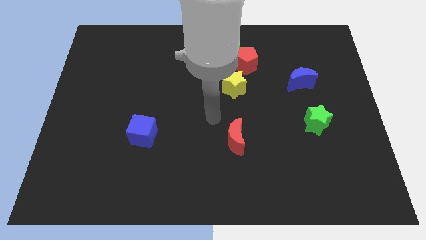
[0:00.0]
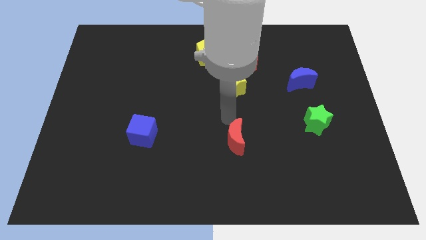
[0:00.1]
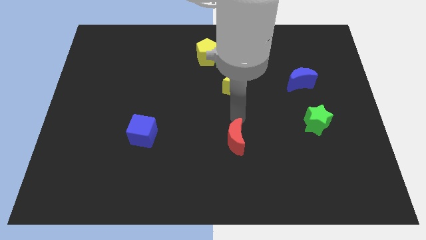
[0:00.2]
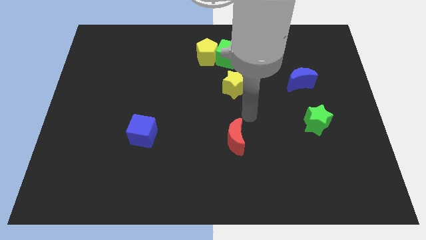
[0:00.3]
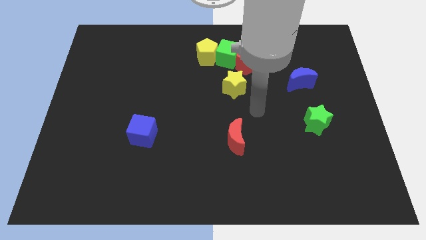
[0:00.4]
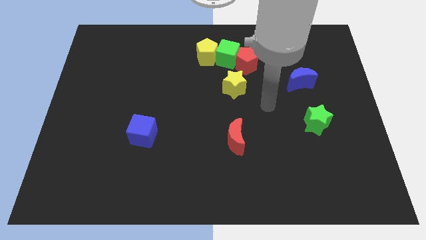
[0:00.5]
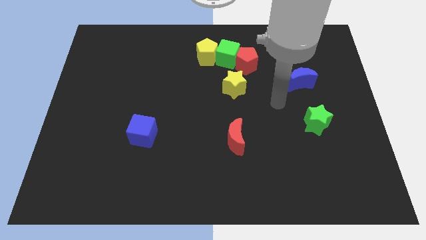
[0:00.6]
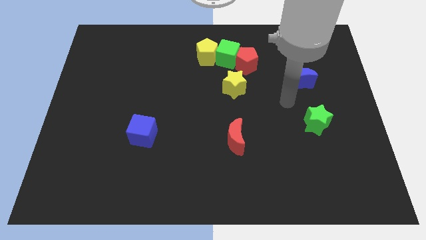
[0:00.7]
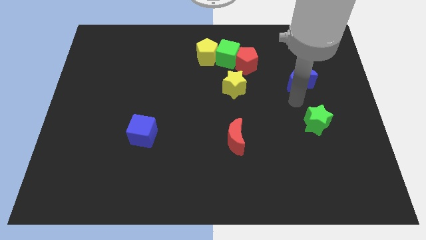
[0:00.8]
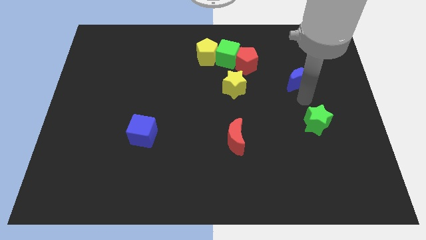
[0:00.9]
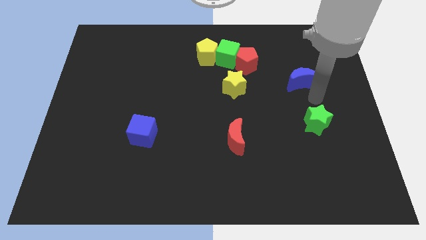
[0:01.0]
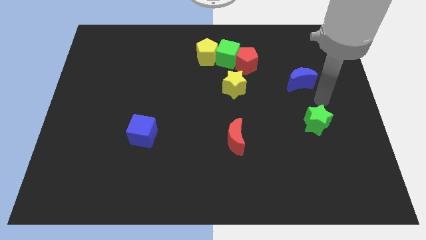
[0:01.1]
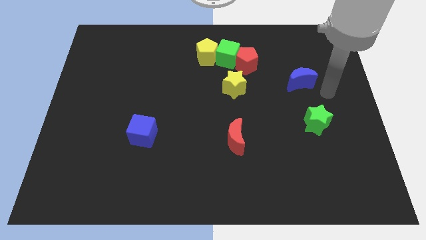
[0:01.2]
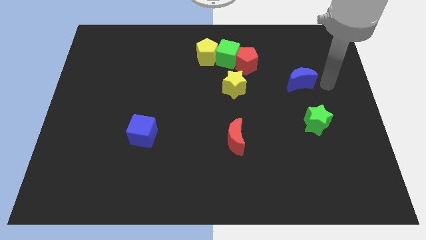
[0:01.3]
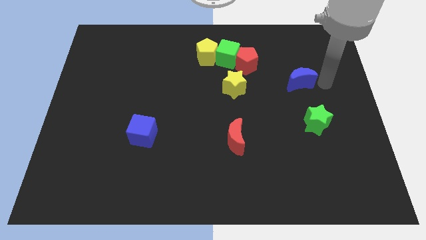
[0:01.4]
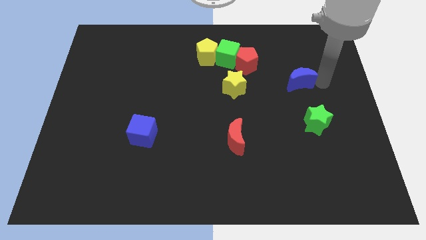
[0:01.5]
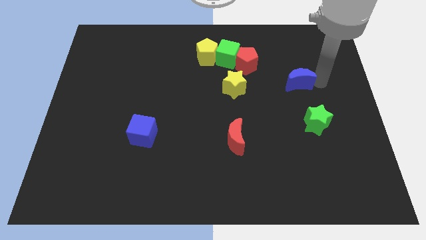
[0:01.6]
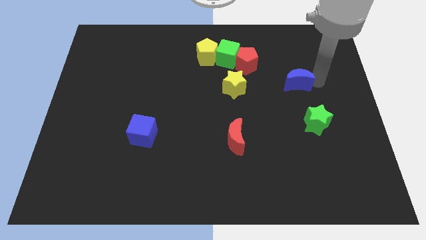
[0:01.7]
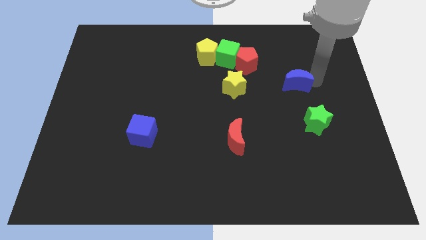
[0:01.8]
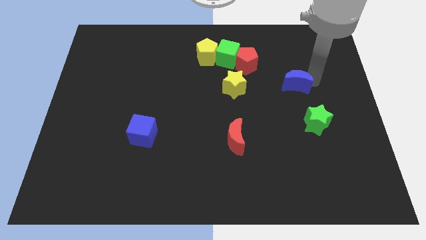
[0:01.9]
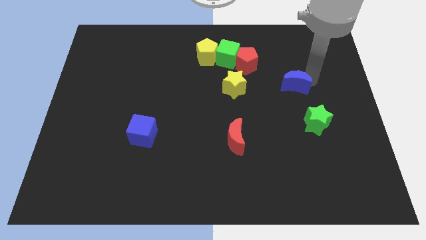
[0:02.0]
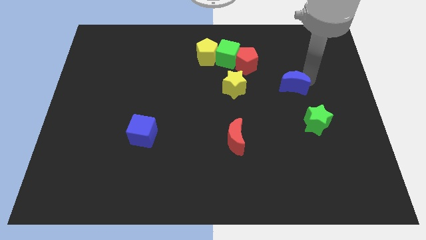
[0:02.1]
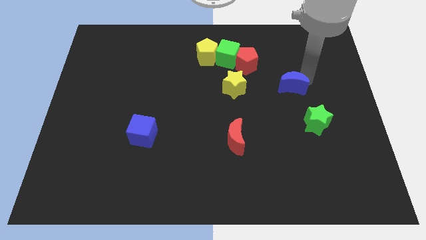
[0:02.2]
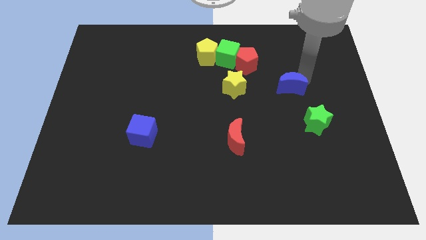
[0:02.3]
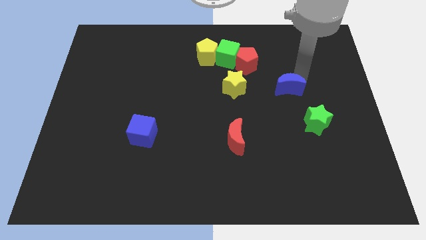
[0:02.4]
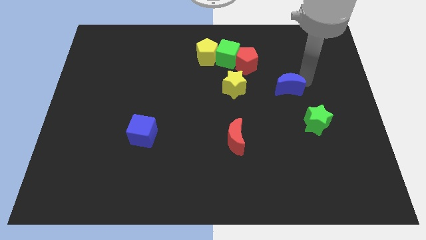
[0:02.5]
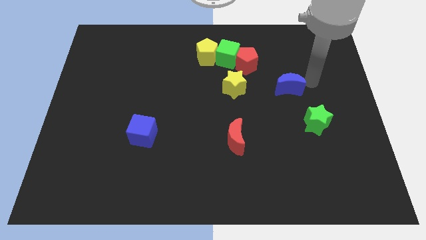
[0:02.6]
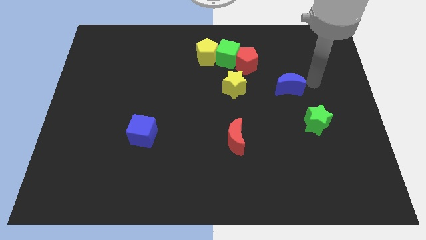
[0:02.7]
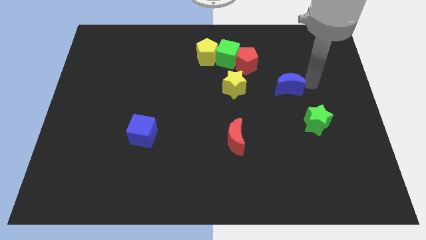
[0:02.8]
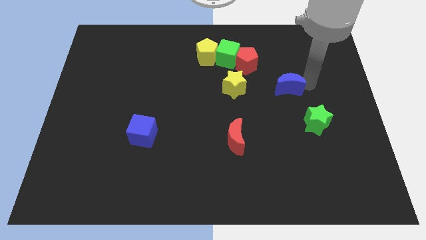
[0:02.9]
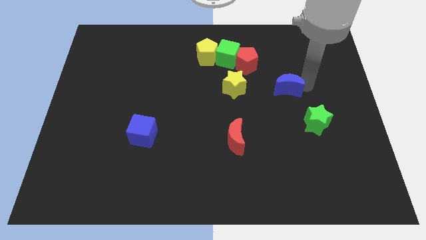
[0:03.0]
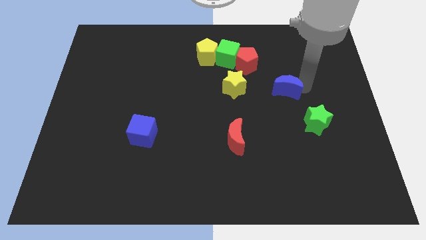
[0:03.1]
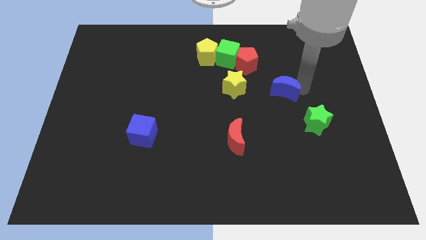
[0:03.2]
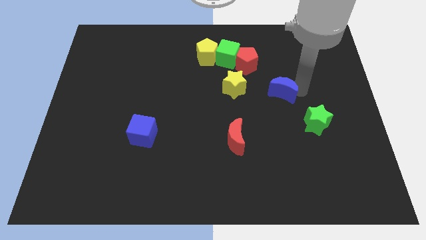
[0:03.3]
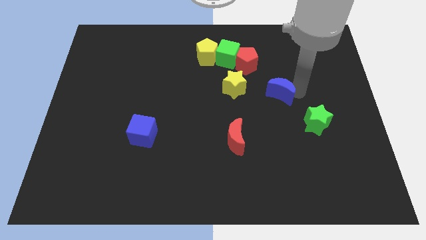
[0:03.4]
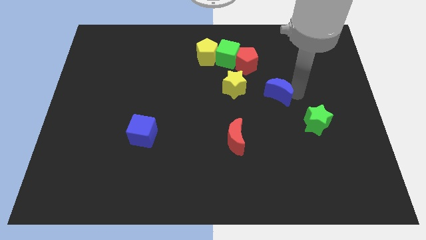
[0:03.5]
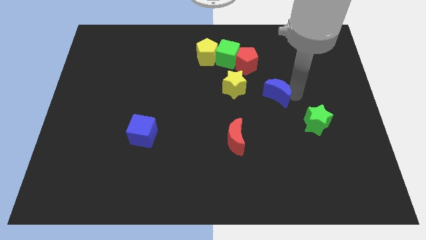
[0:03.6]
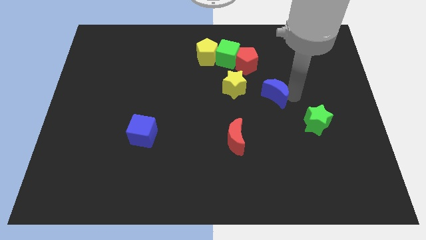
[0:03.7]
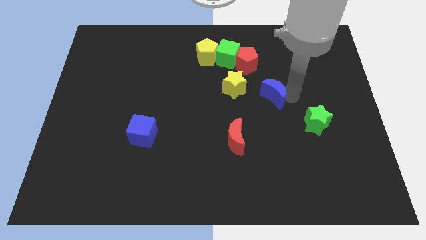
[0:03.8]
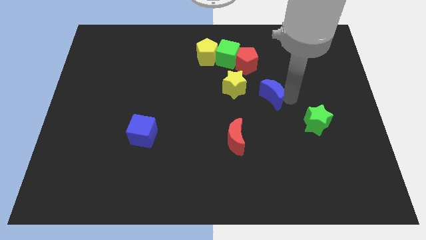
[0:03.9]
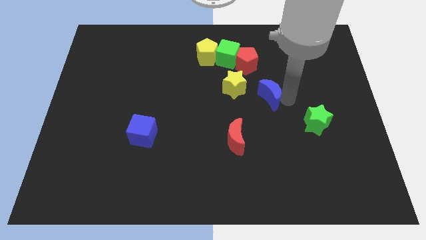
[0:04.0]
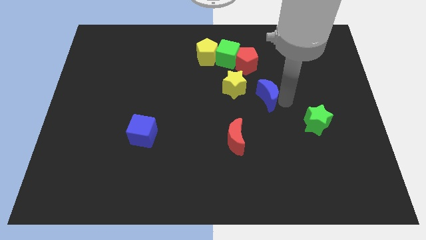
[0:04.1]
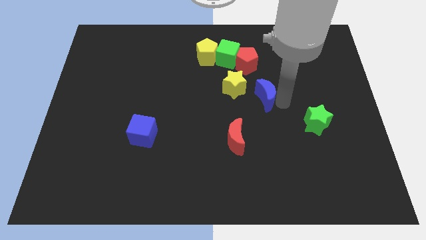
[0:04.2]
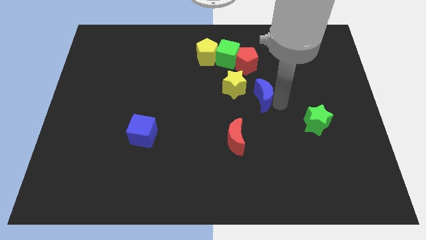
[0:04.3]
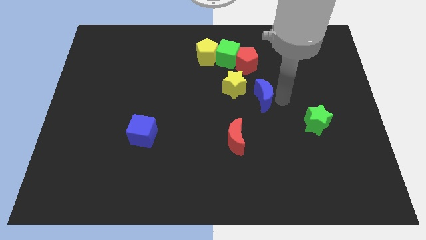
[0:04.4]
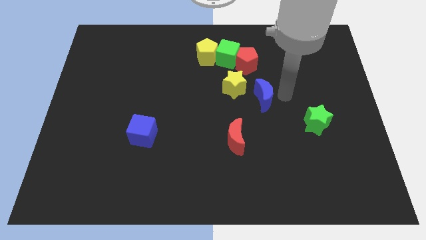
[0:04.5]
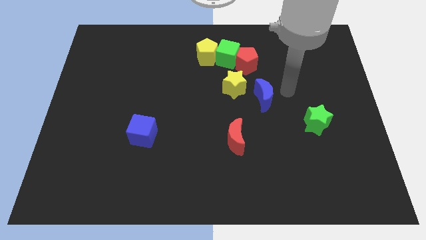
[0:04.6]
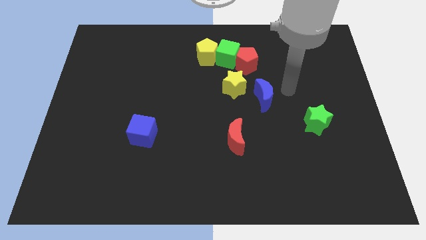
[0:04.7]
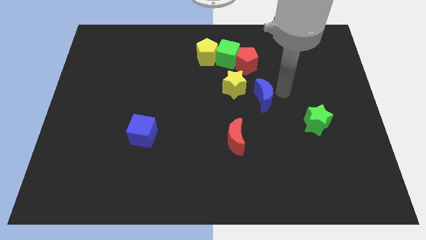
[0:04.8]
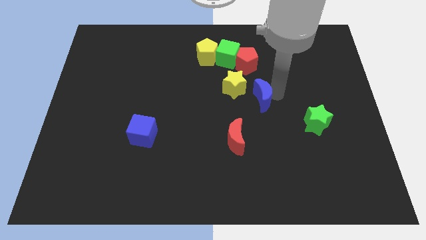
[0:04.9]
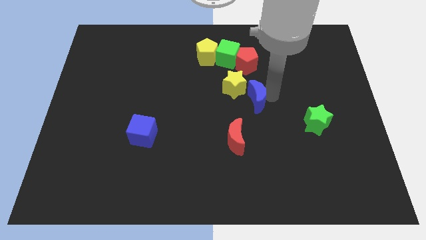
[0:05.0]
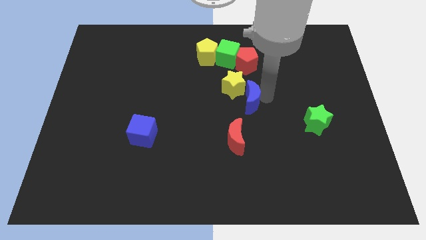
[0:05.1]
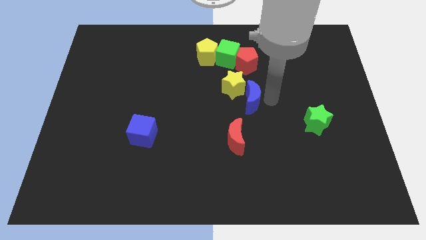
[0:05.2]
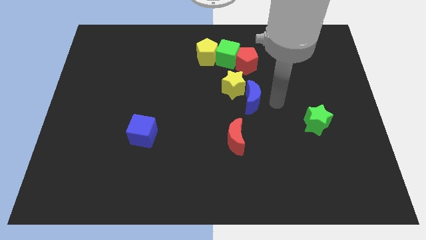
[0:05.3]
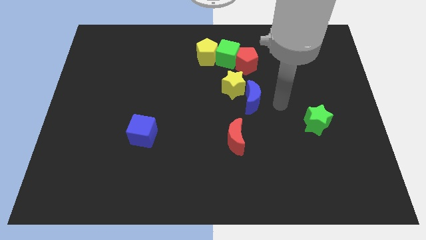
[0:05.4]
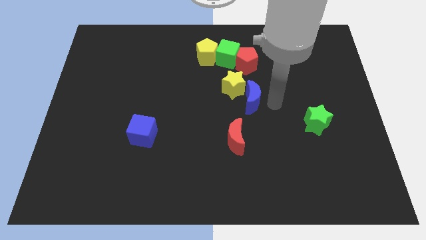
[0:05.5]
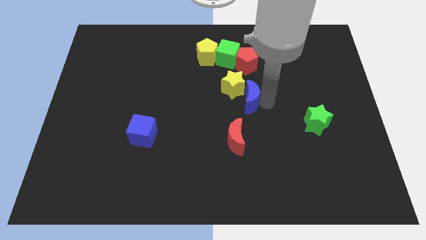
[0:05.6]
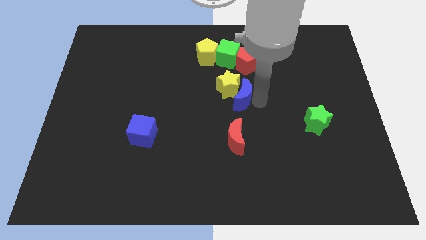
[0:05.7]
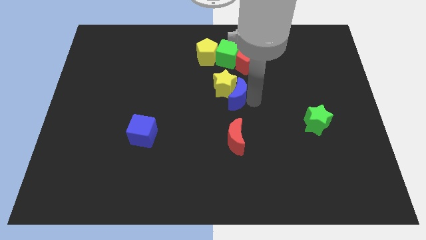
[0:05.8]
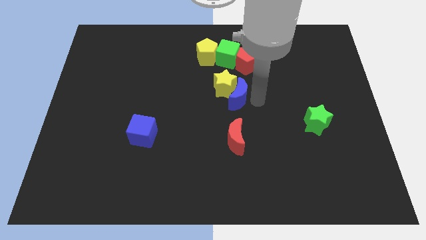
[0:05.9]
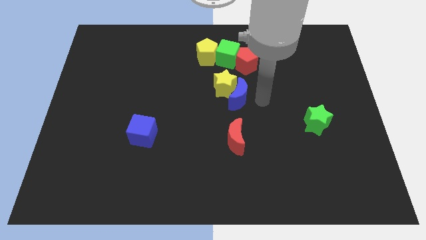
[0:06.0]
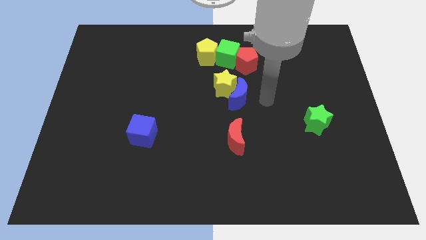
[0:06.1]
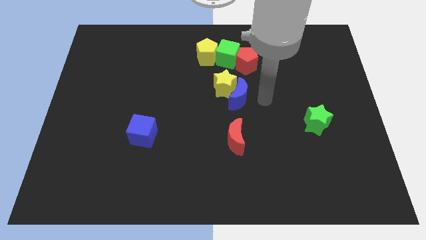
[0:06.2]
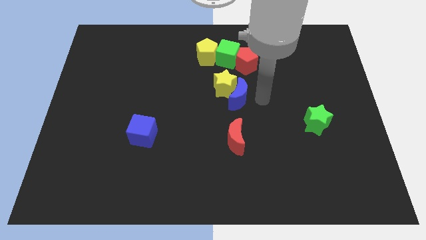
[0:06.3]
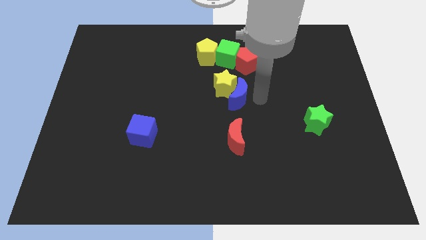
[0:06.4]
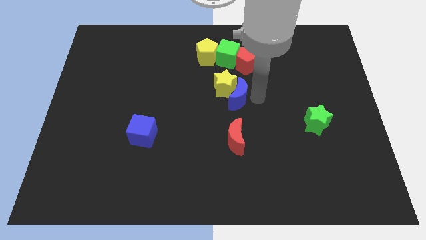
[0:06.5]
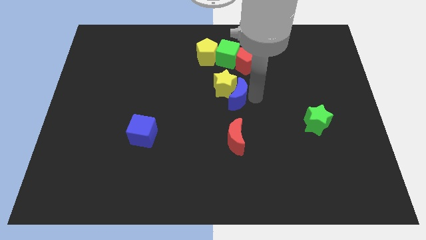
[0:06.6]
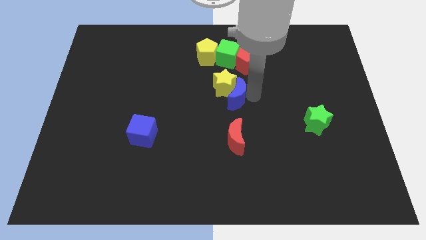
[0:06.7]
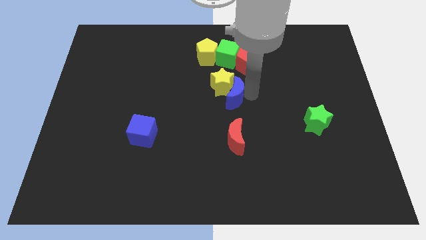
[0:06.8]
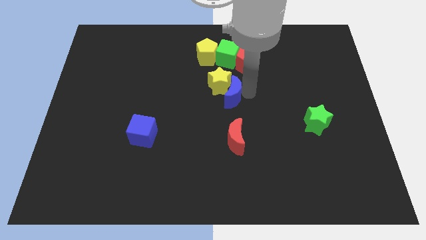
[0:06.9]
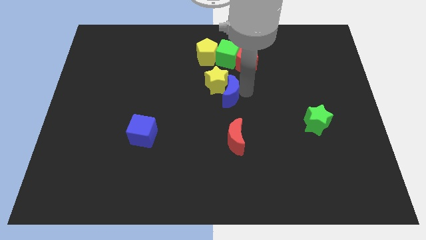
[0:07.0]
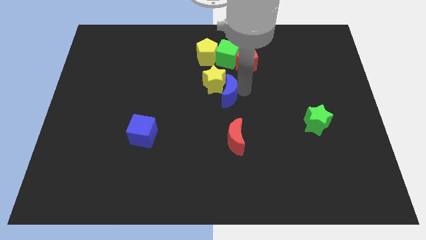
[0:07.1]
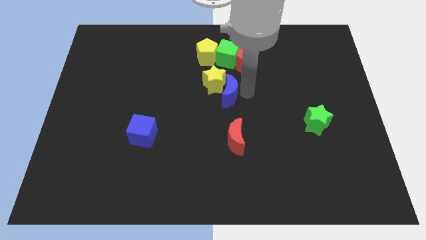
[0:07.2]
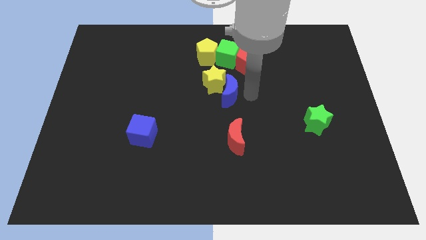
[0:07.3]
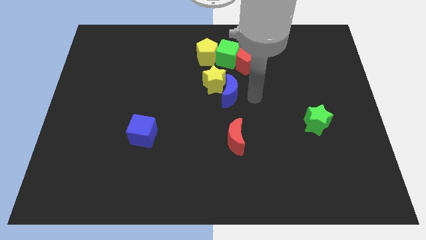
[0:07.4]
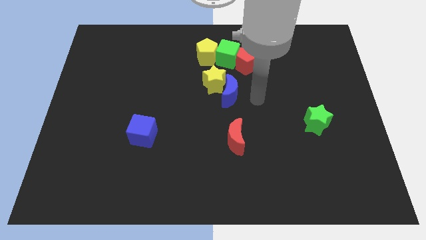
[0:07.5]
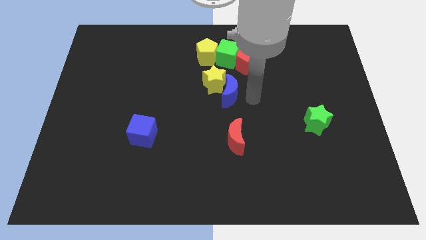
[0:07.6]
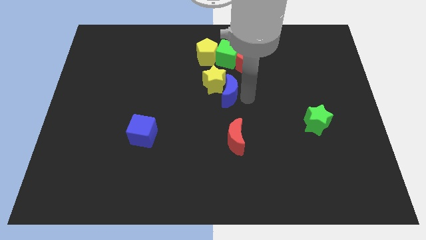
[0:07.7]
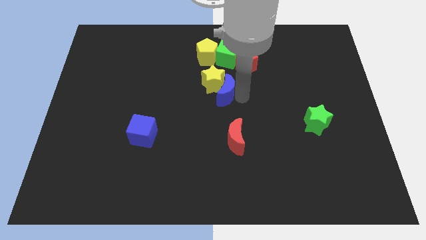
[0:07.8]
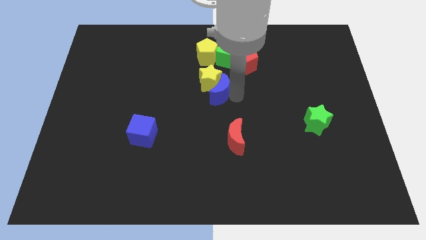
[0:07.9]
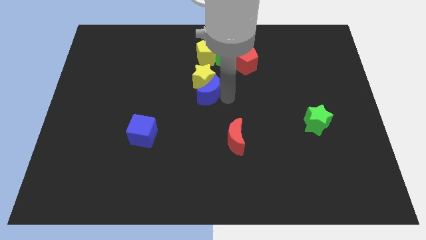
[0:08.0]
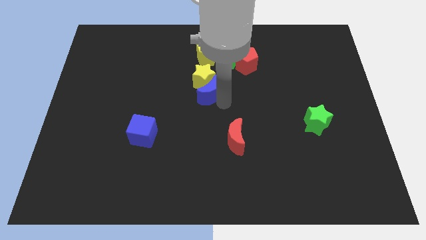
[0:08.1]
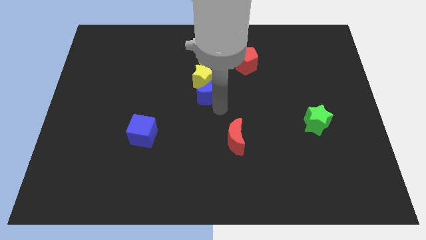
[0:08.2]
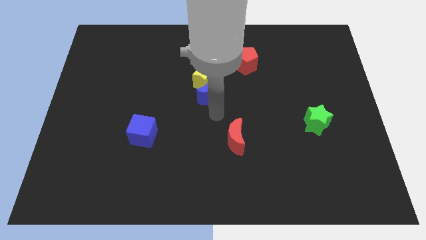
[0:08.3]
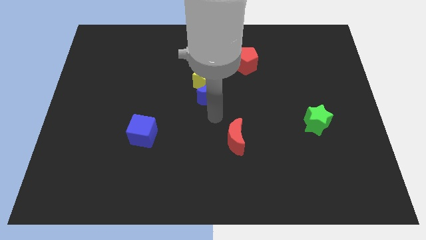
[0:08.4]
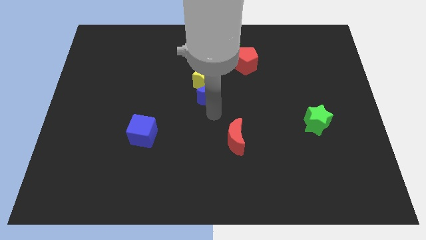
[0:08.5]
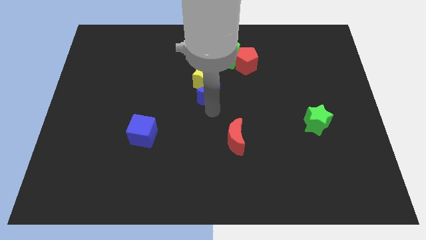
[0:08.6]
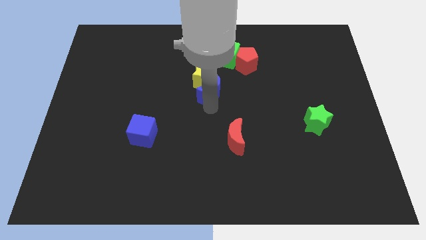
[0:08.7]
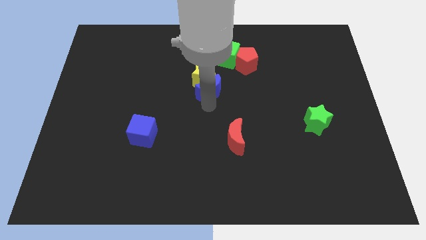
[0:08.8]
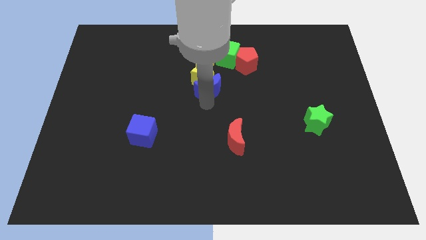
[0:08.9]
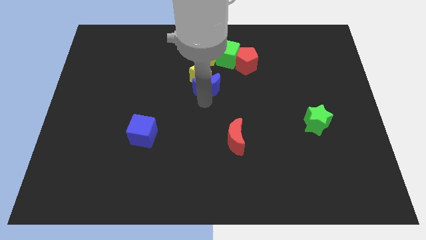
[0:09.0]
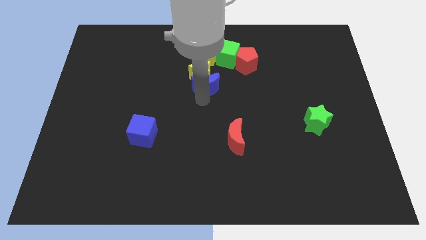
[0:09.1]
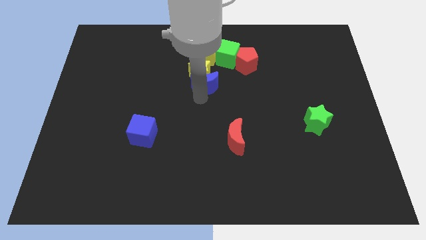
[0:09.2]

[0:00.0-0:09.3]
put the blue moon diagonally down and to the left of the green cube
